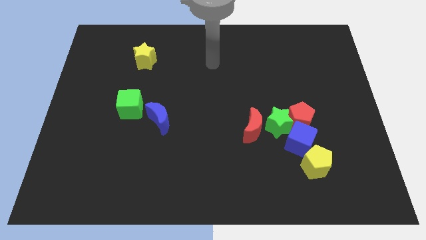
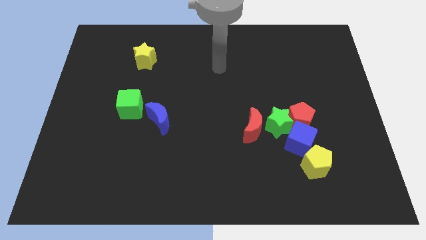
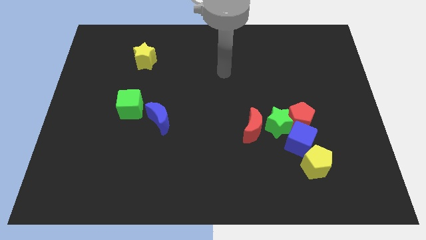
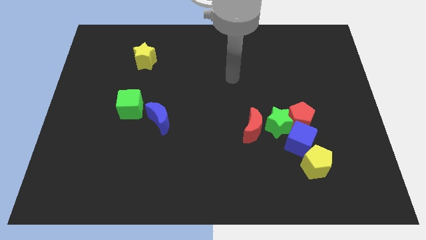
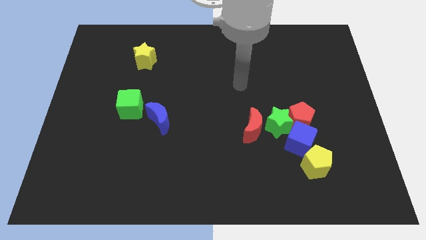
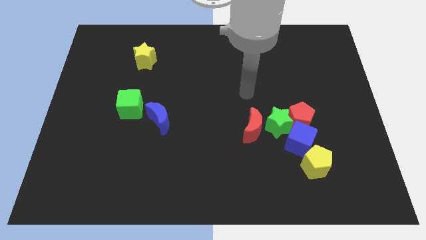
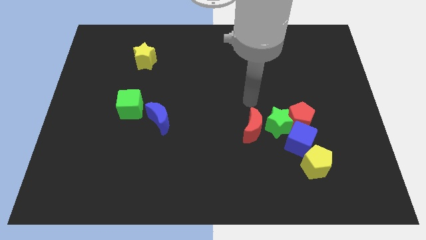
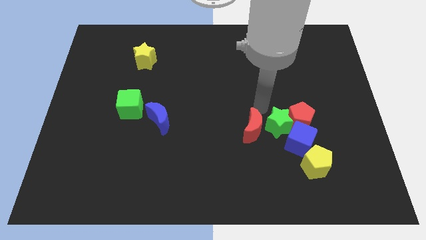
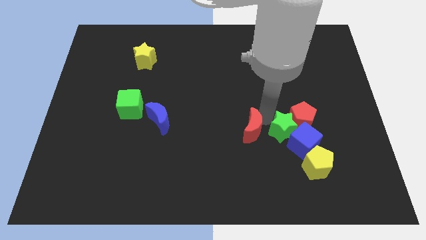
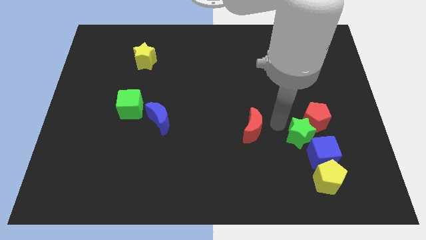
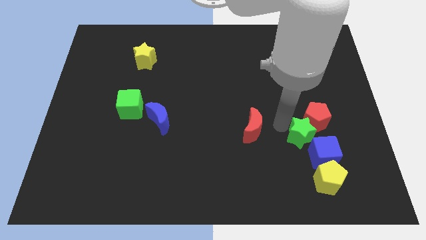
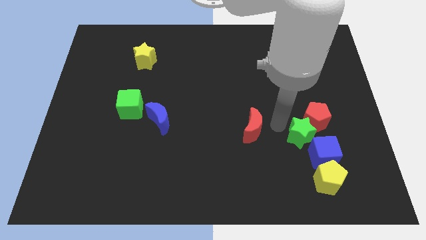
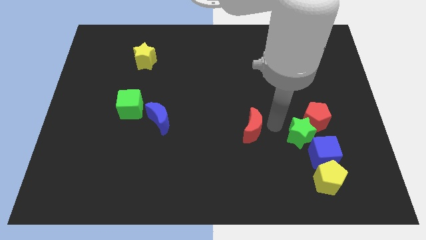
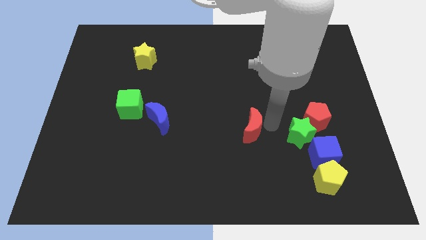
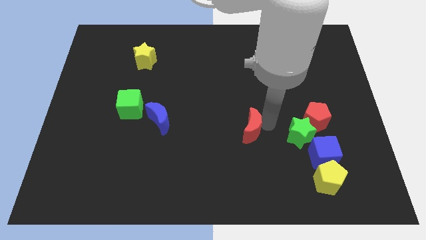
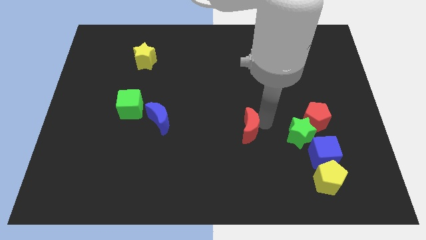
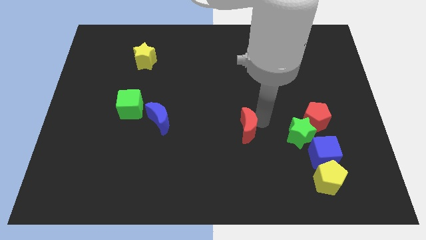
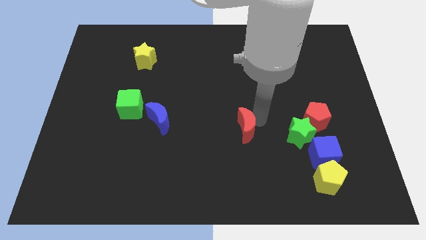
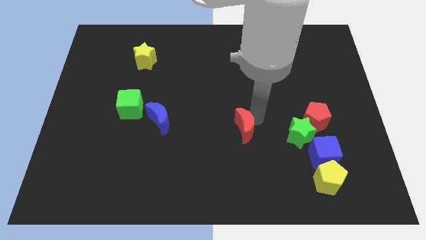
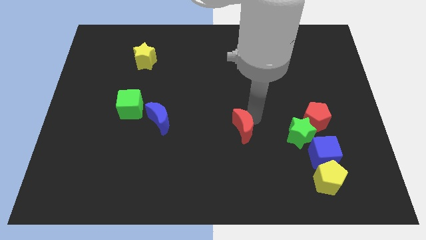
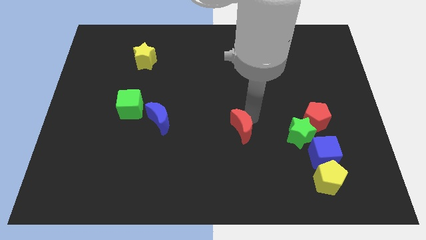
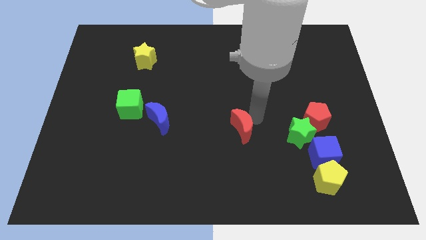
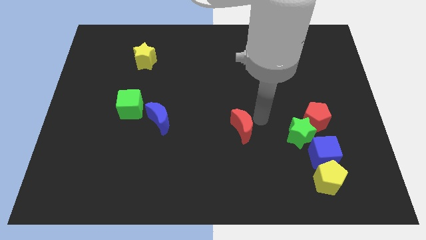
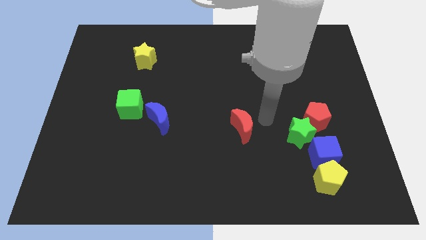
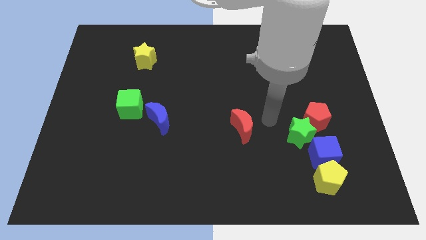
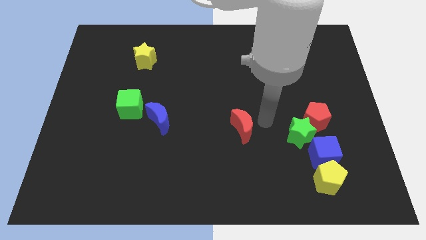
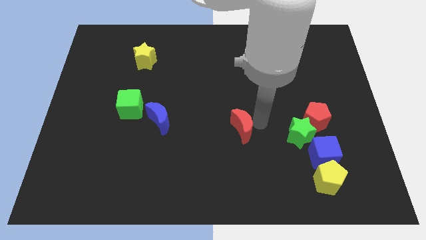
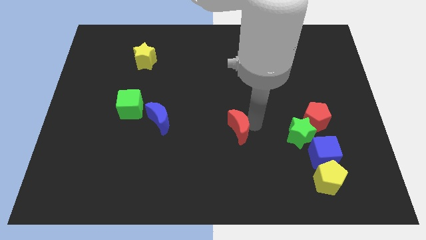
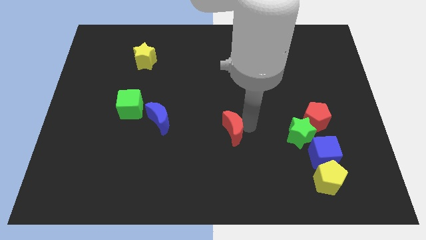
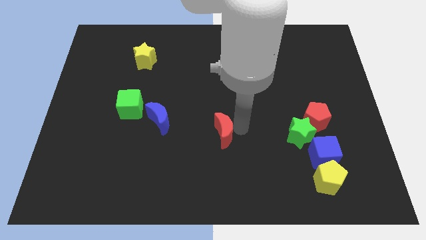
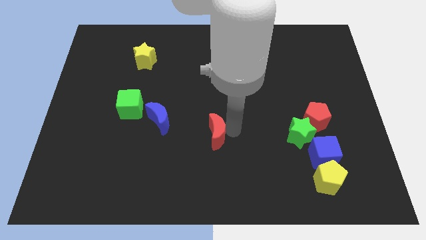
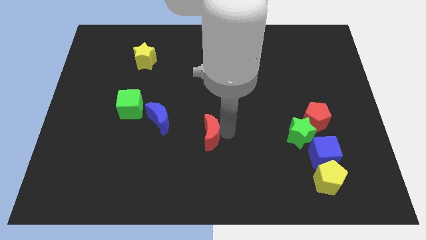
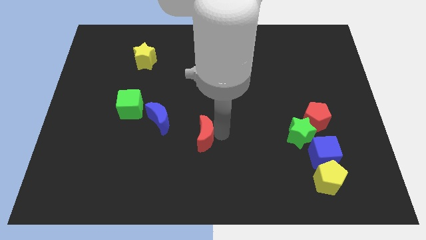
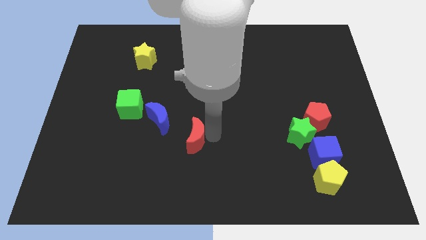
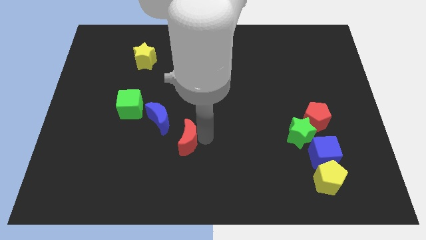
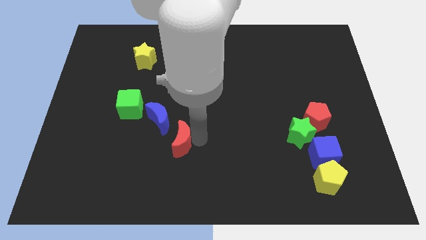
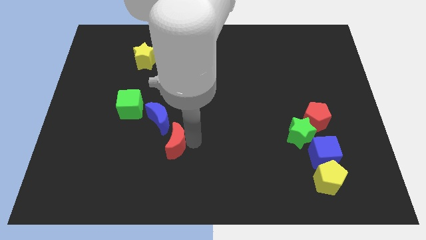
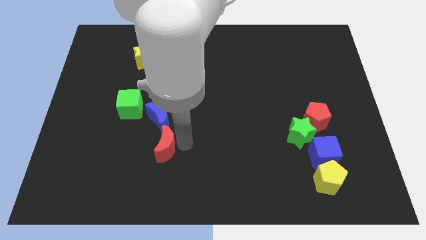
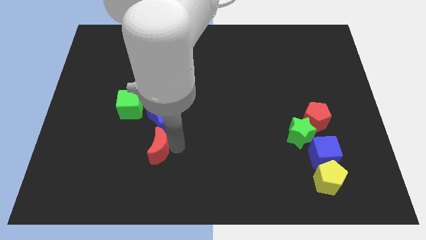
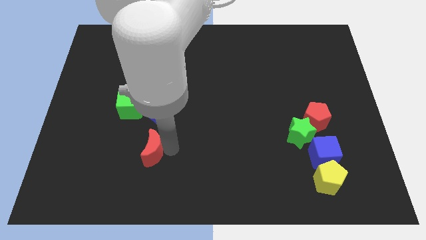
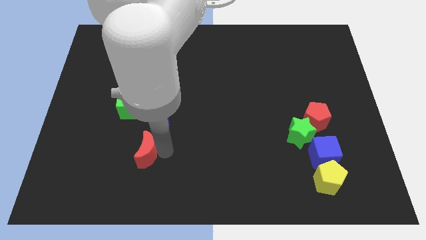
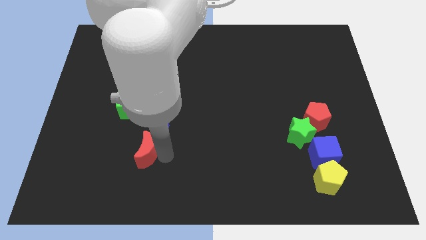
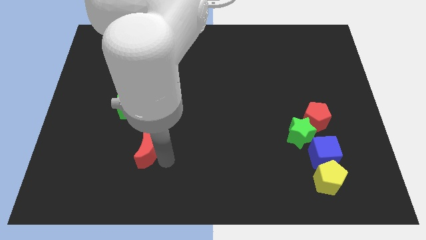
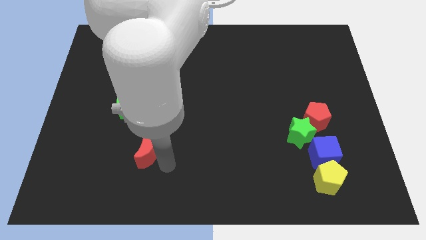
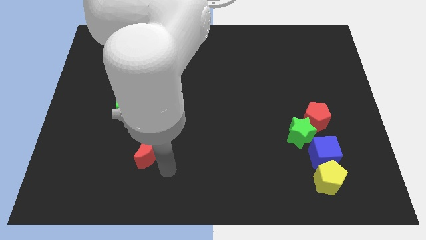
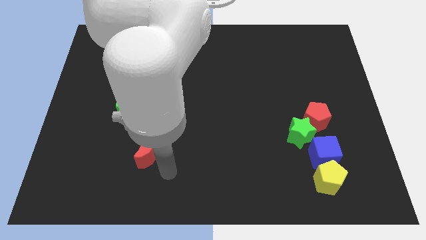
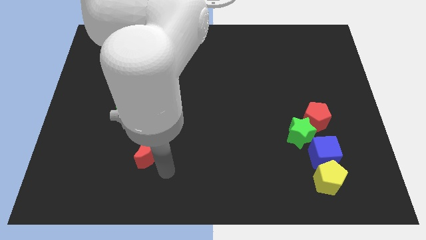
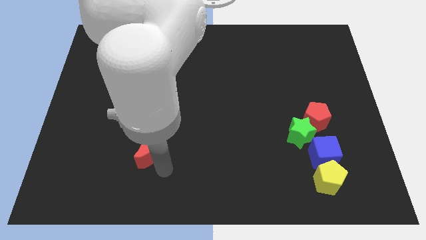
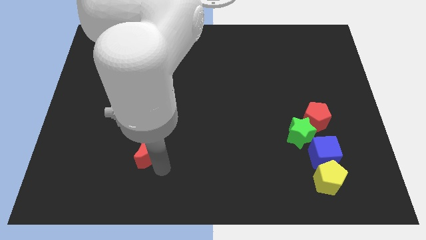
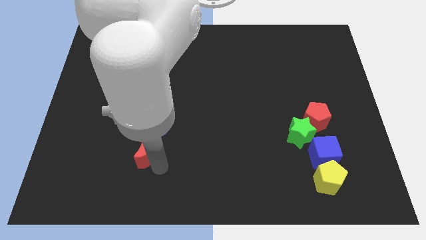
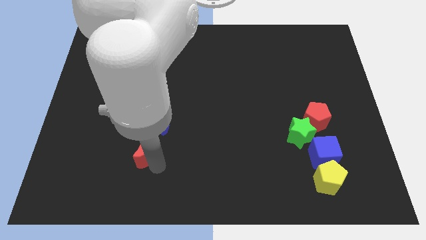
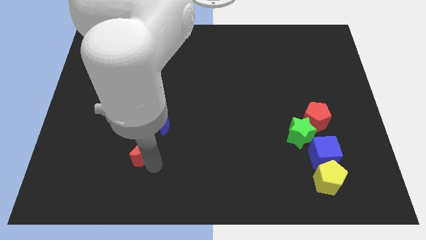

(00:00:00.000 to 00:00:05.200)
move the red moon to the bottom of the green cube

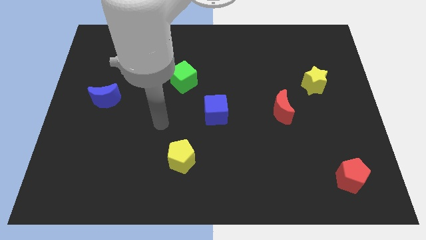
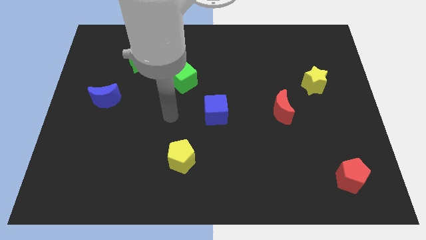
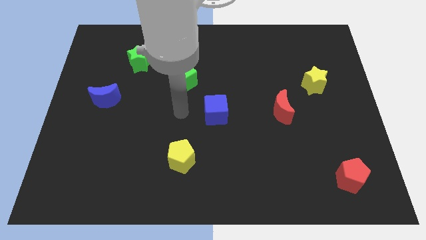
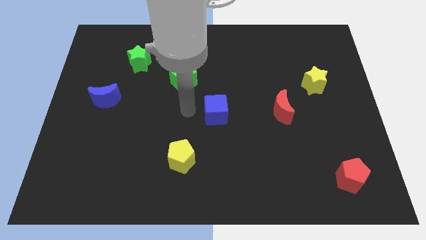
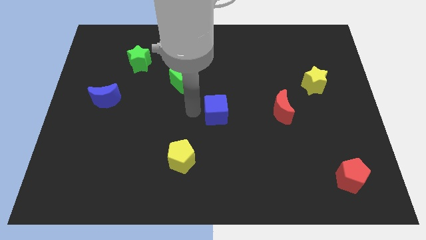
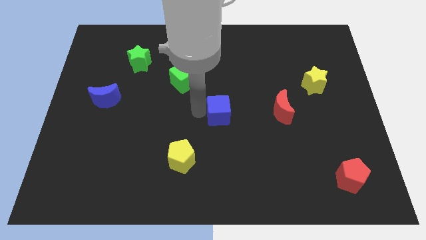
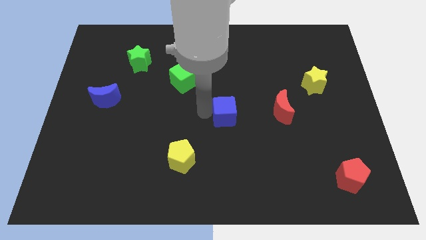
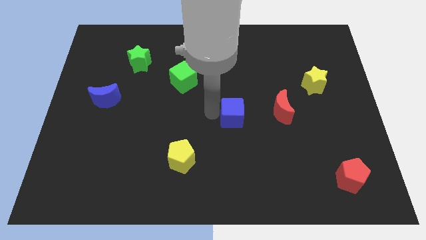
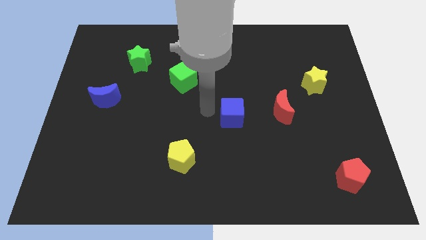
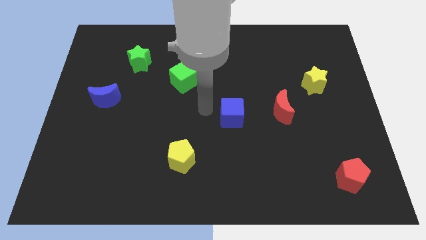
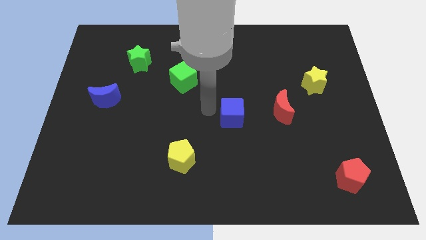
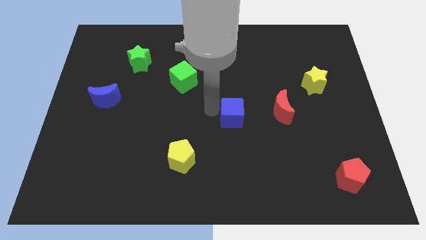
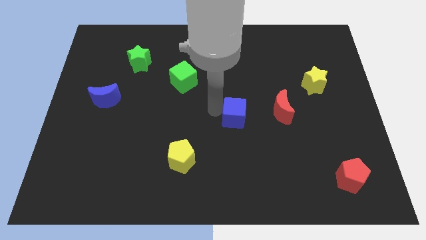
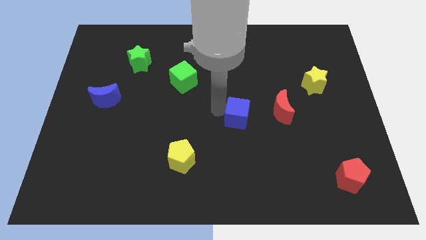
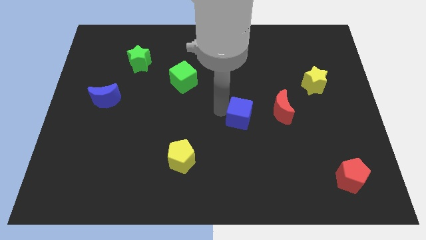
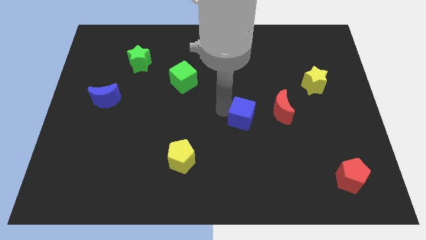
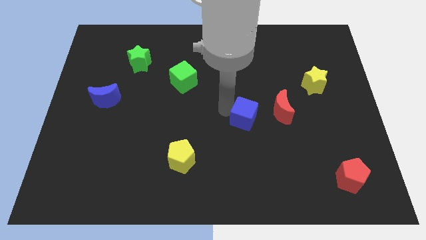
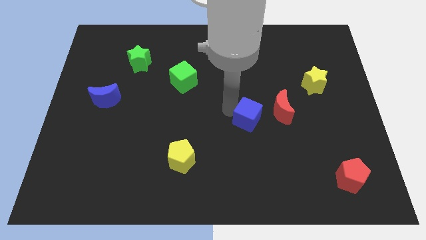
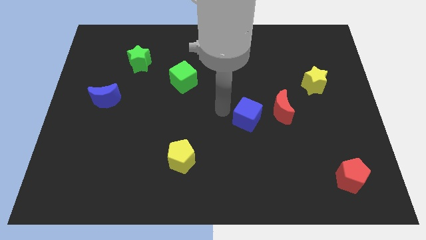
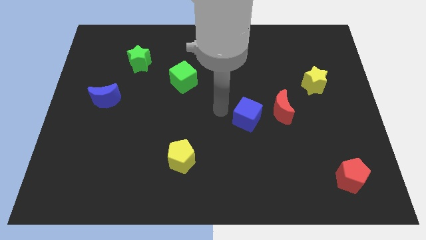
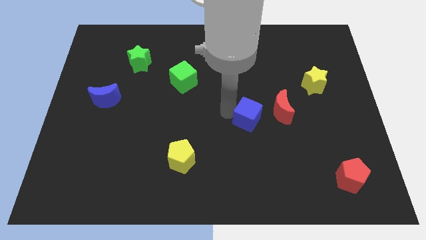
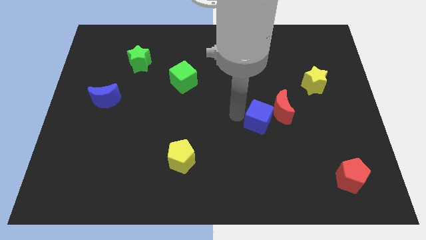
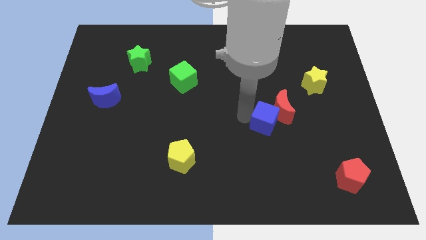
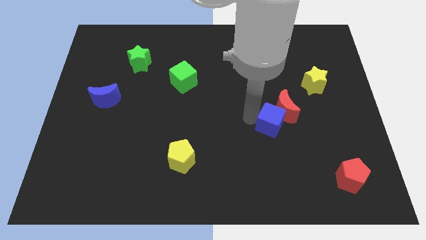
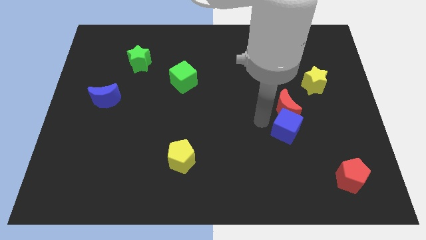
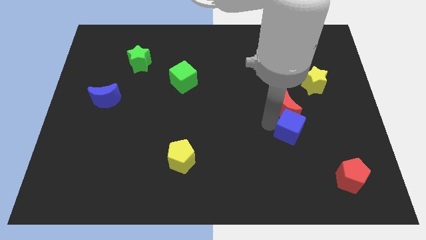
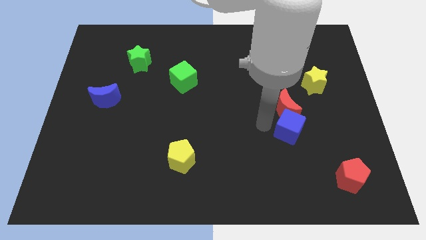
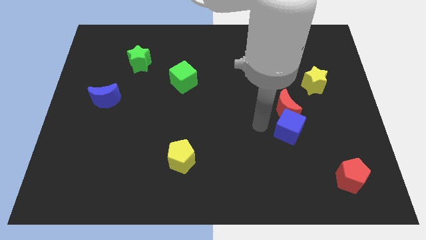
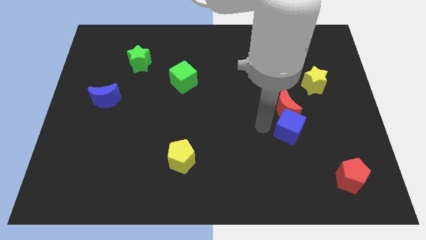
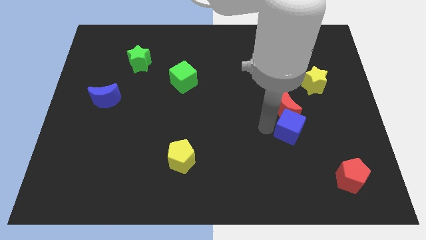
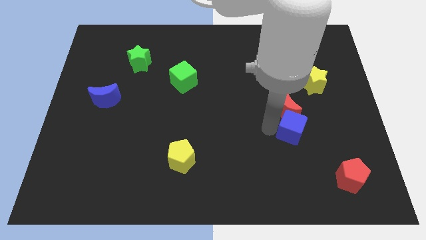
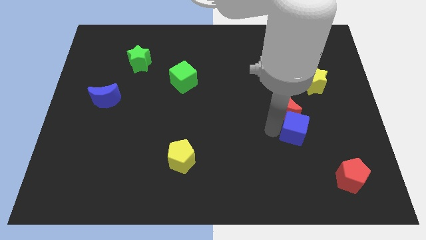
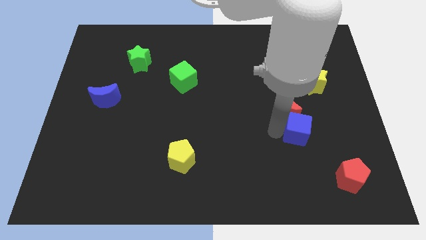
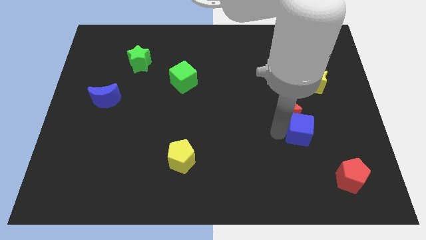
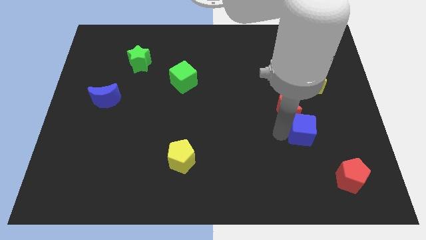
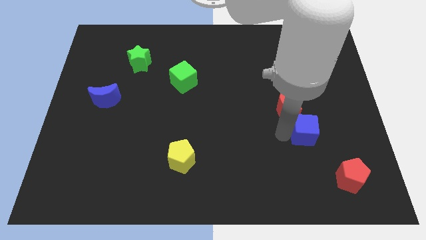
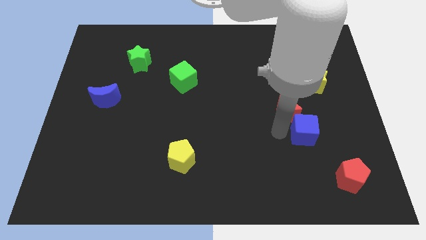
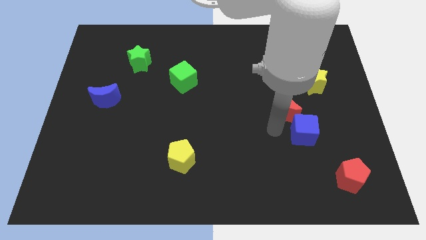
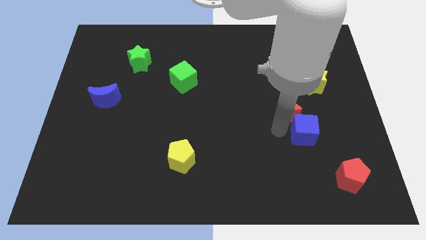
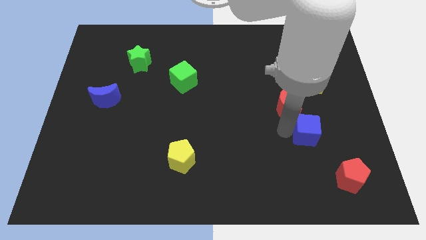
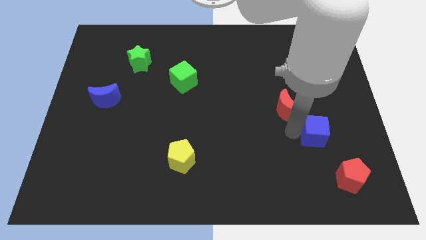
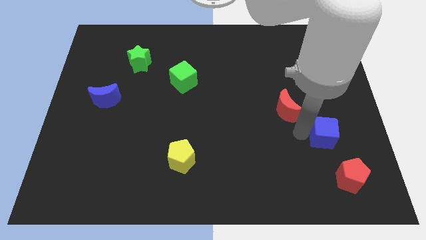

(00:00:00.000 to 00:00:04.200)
move the blue cube to the top of the red pentagon
